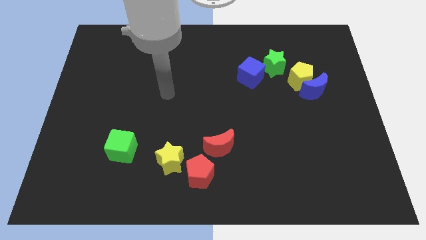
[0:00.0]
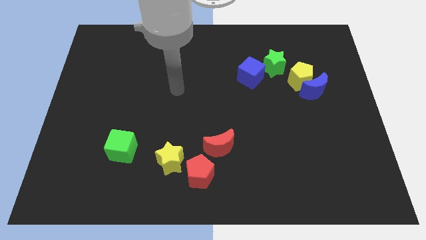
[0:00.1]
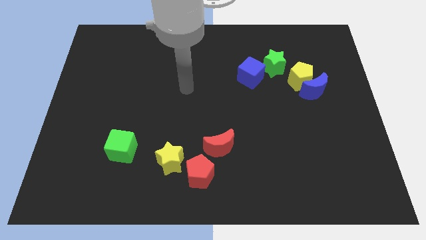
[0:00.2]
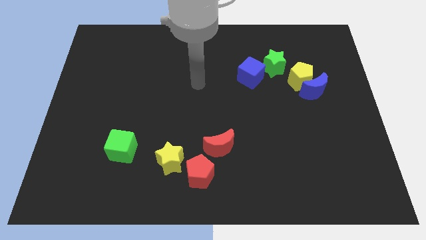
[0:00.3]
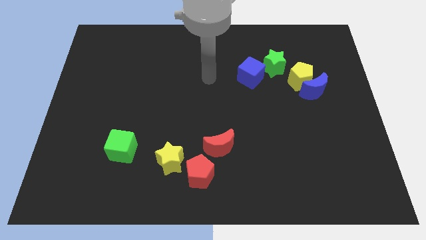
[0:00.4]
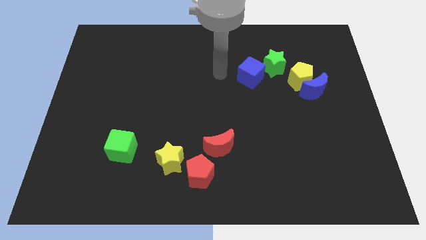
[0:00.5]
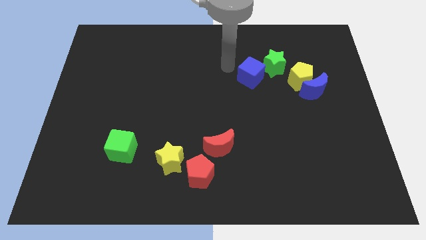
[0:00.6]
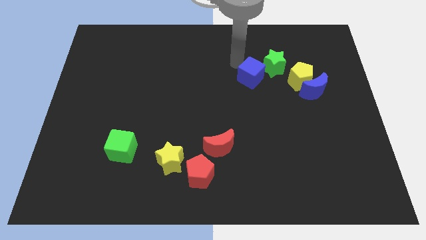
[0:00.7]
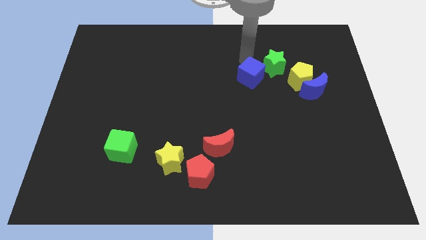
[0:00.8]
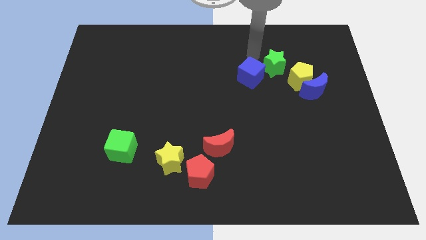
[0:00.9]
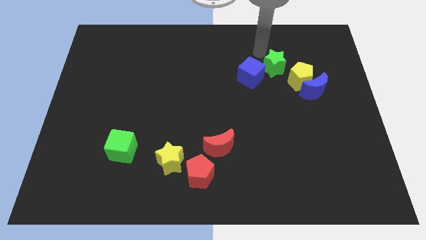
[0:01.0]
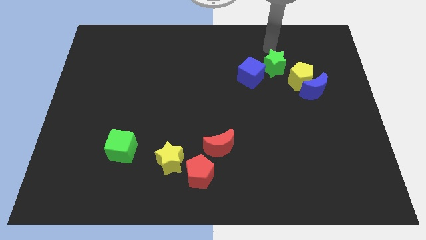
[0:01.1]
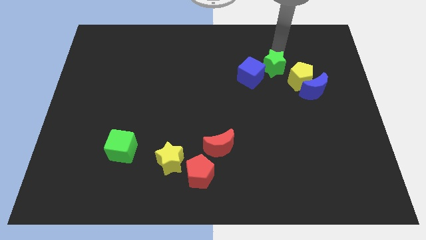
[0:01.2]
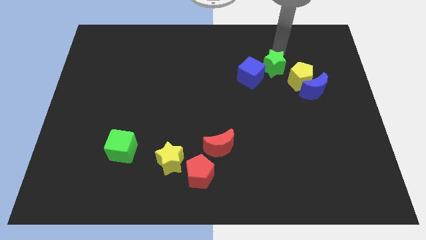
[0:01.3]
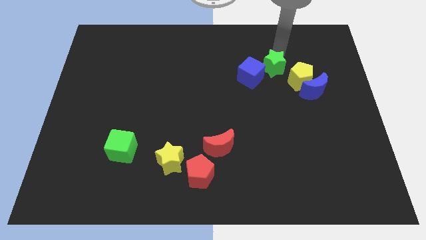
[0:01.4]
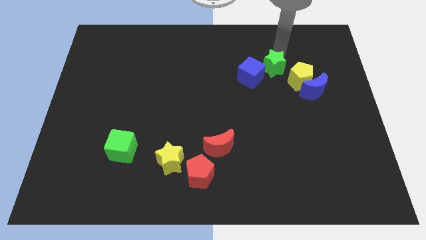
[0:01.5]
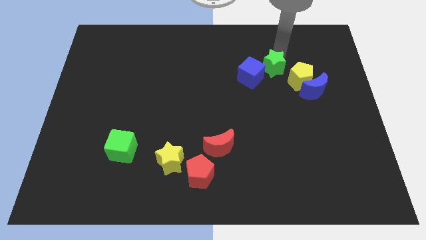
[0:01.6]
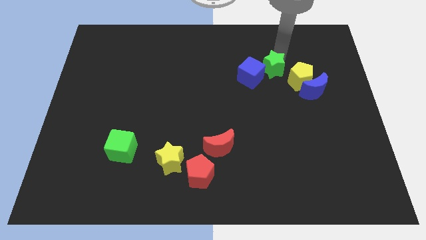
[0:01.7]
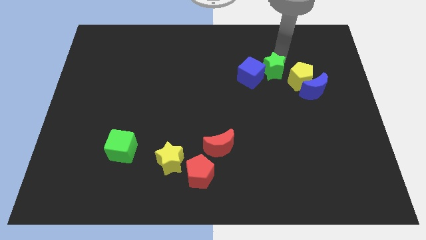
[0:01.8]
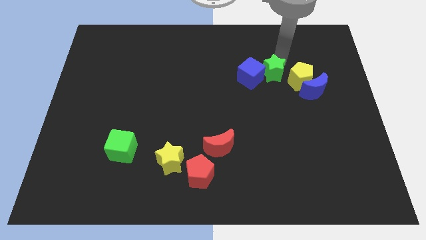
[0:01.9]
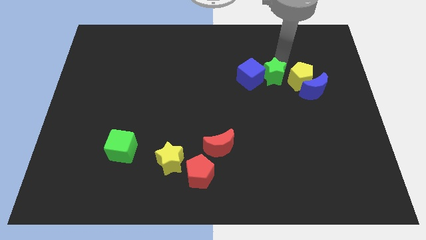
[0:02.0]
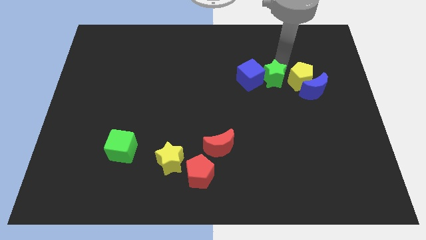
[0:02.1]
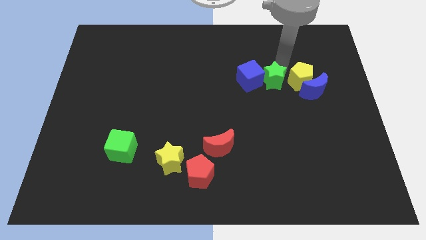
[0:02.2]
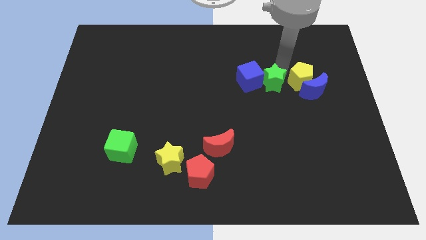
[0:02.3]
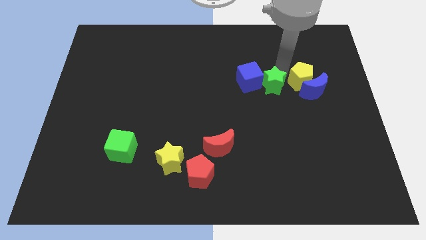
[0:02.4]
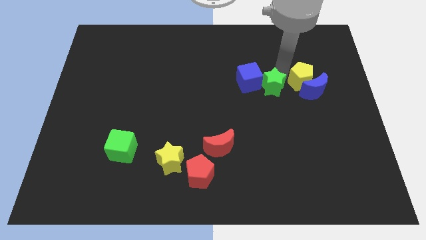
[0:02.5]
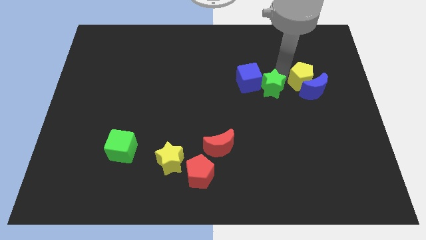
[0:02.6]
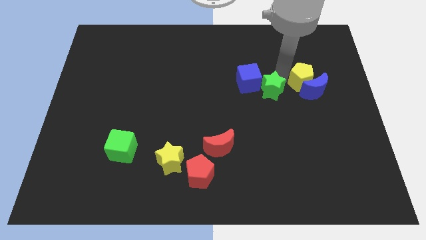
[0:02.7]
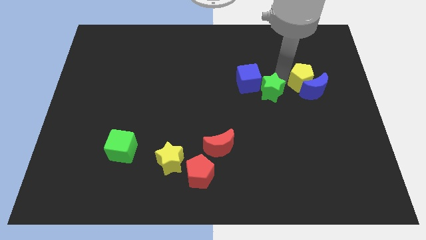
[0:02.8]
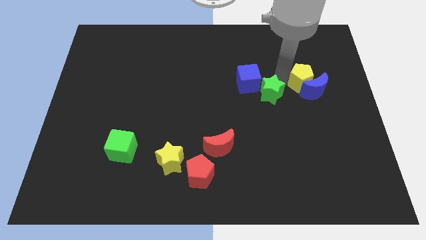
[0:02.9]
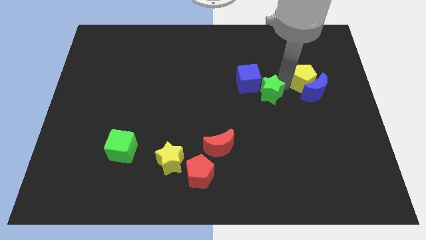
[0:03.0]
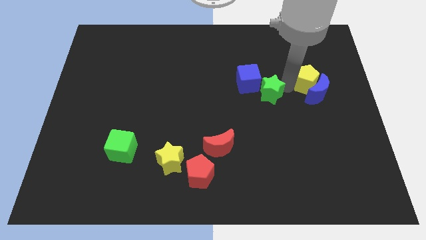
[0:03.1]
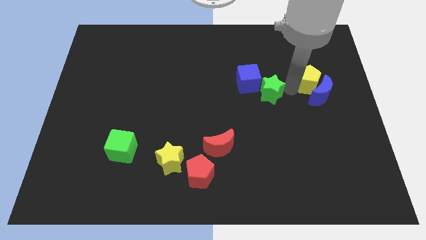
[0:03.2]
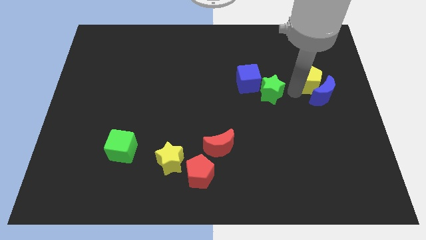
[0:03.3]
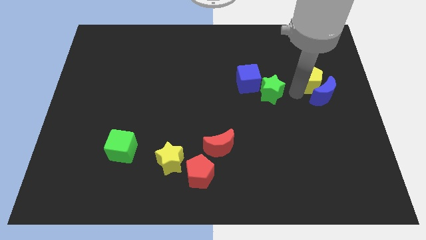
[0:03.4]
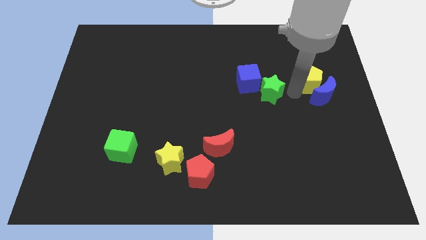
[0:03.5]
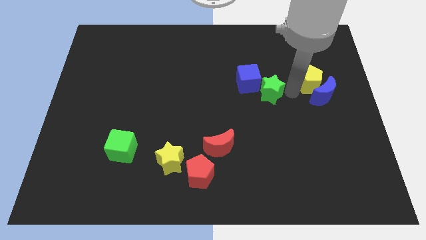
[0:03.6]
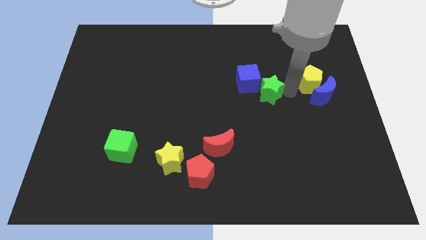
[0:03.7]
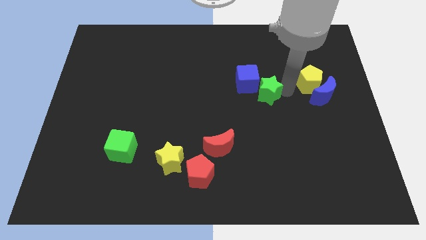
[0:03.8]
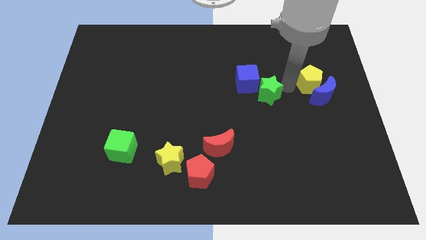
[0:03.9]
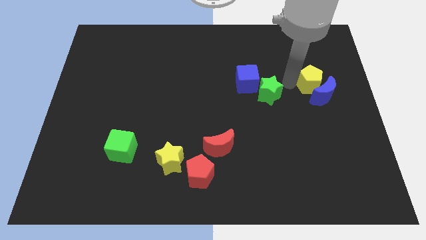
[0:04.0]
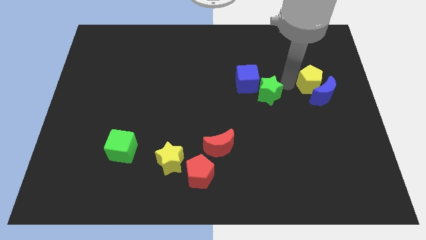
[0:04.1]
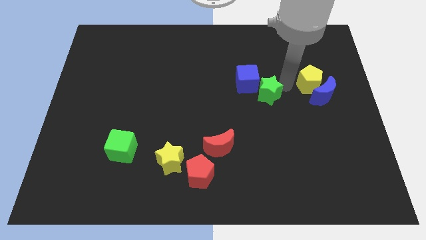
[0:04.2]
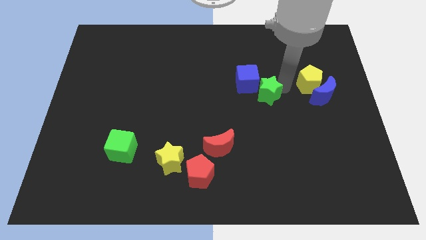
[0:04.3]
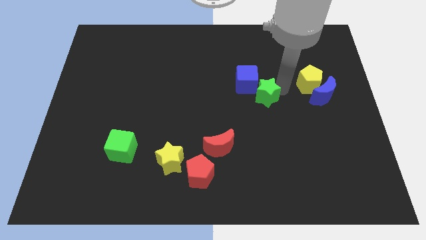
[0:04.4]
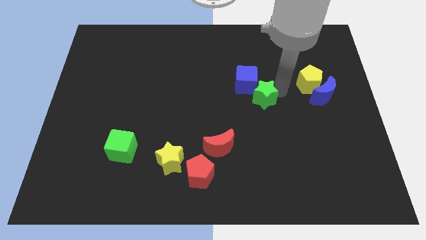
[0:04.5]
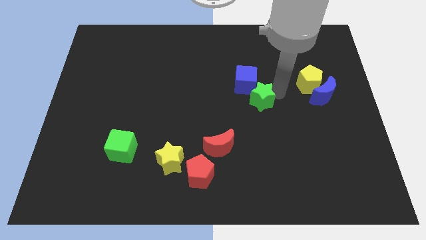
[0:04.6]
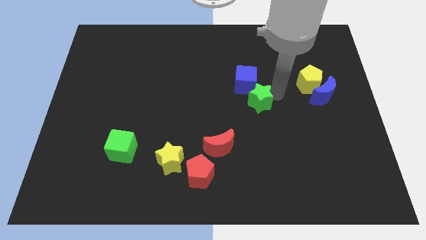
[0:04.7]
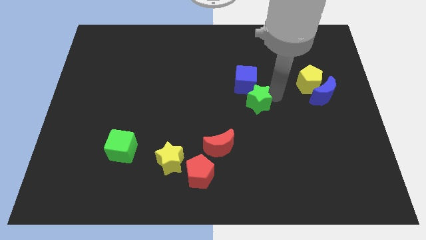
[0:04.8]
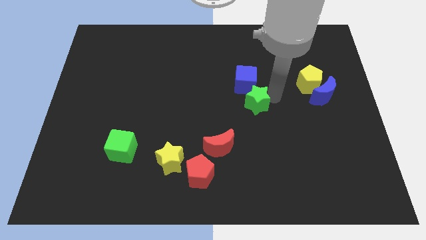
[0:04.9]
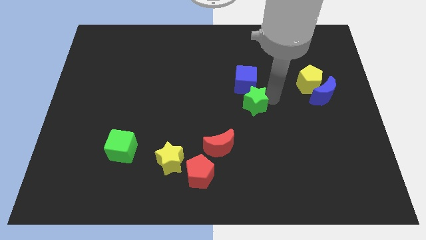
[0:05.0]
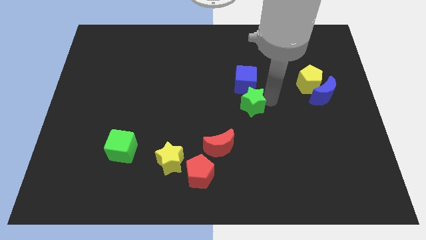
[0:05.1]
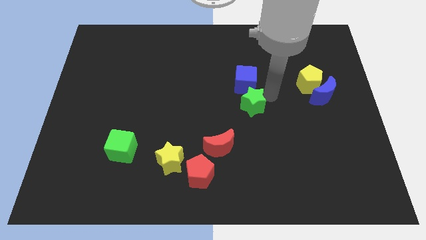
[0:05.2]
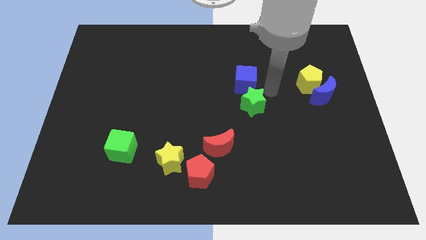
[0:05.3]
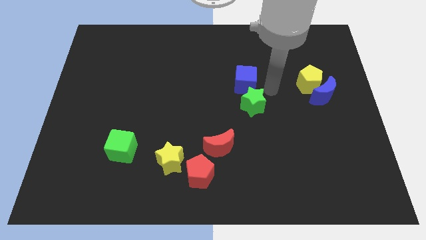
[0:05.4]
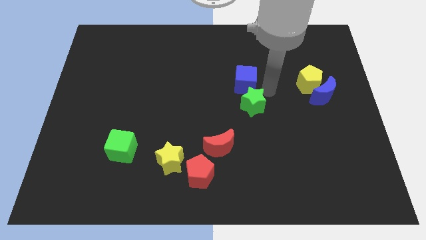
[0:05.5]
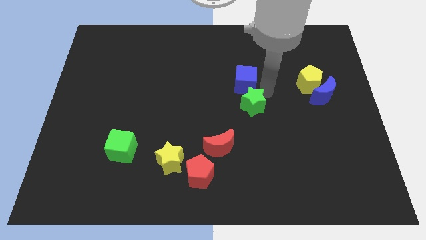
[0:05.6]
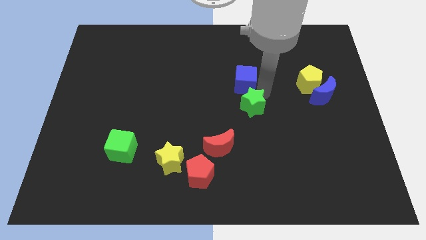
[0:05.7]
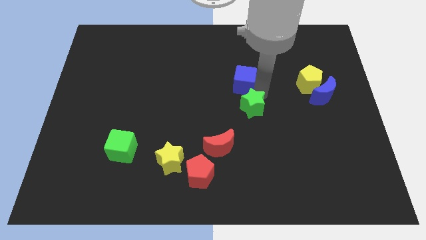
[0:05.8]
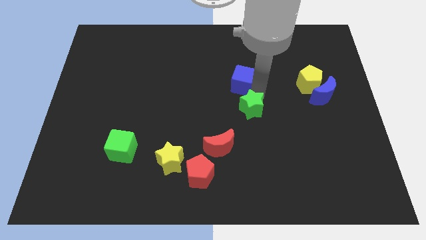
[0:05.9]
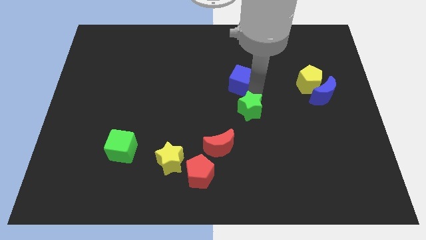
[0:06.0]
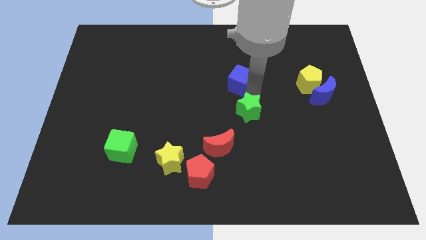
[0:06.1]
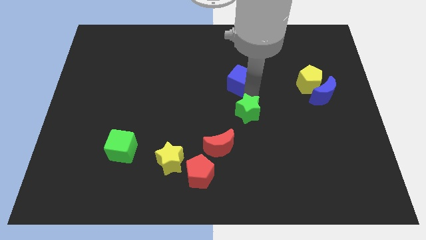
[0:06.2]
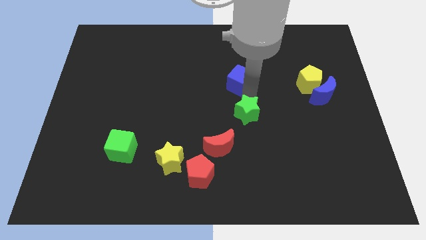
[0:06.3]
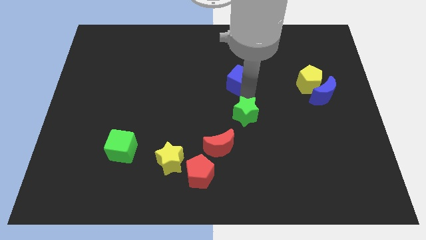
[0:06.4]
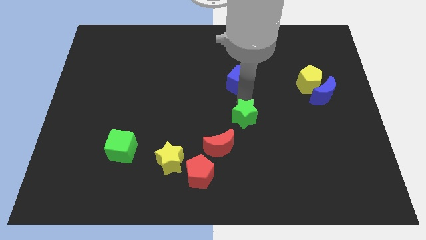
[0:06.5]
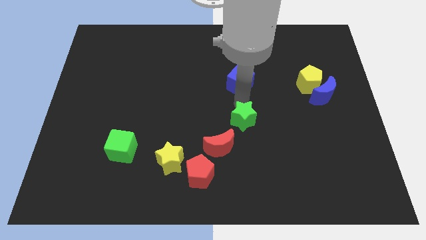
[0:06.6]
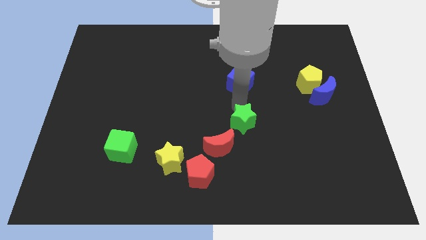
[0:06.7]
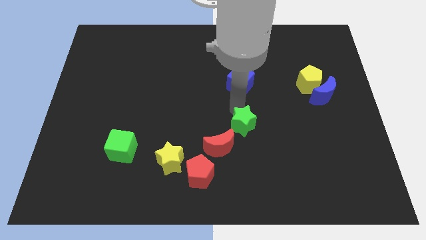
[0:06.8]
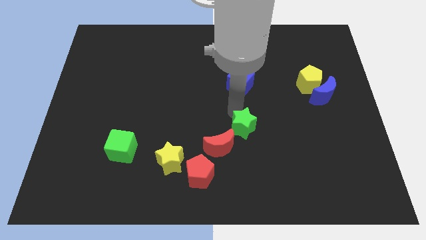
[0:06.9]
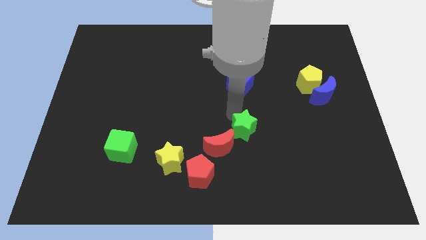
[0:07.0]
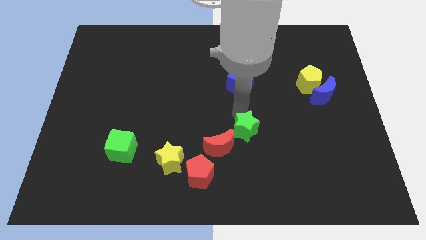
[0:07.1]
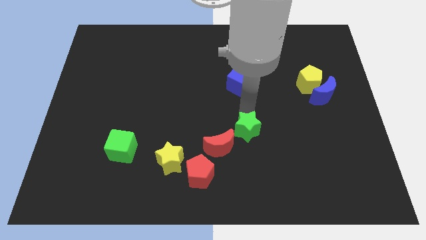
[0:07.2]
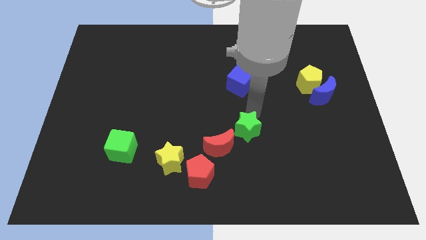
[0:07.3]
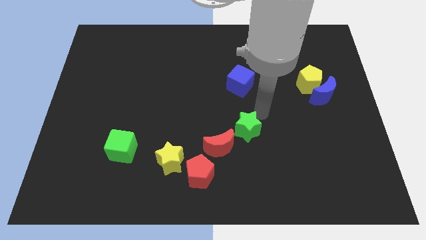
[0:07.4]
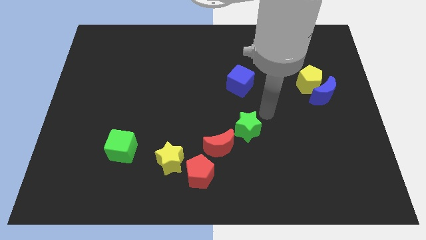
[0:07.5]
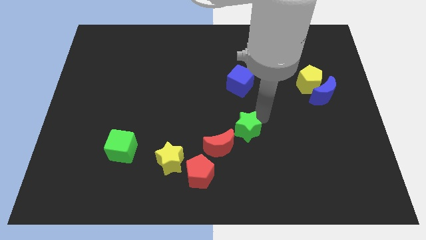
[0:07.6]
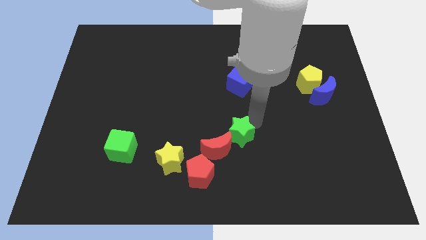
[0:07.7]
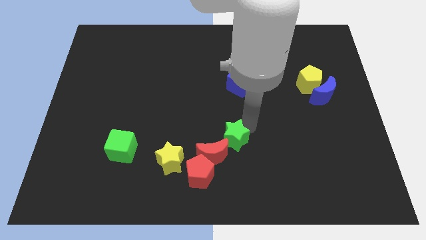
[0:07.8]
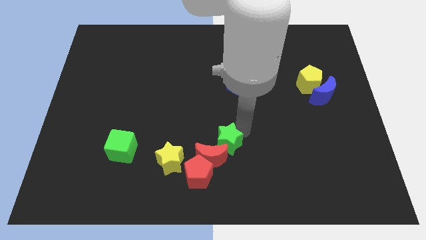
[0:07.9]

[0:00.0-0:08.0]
slide the green star towards the red moon
